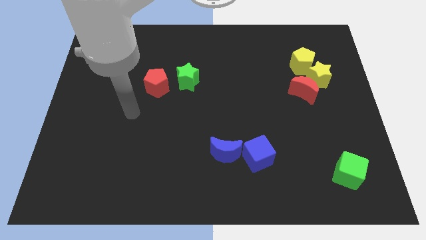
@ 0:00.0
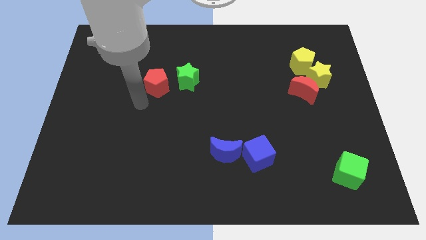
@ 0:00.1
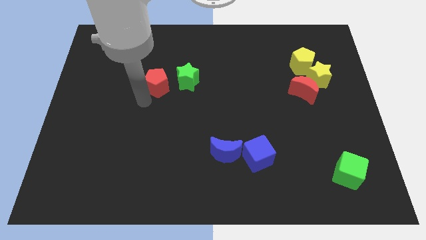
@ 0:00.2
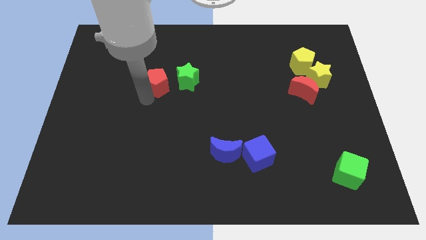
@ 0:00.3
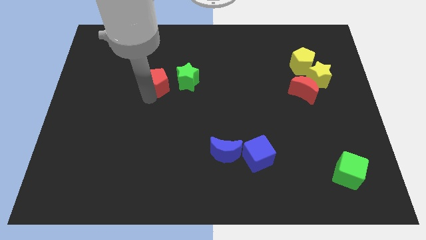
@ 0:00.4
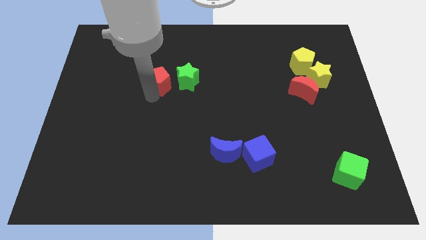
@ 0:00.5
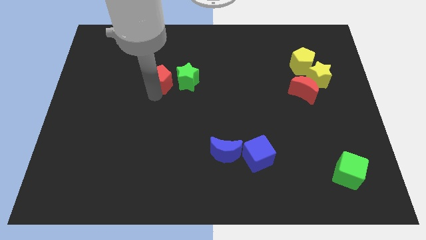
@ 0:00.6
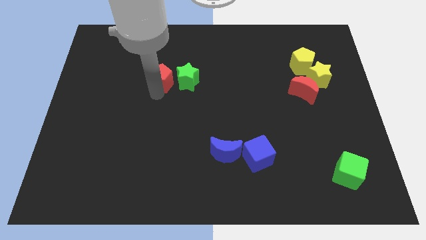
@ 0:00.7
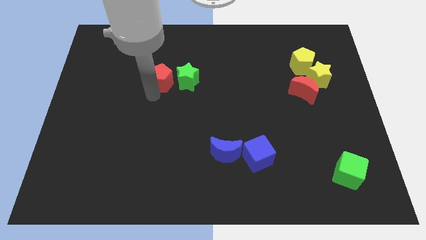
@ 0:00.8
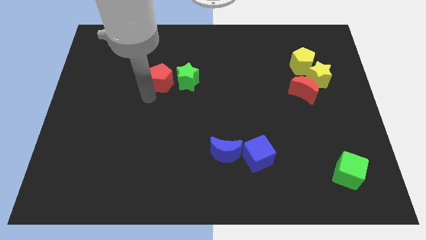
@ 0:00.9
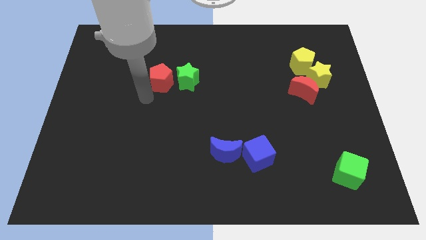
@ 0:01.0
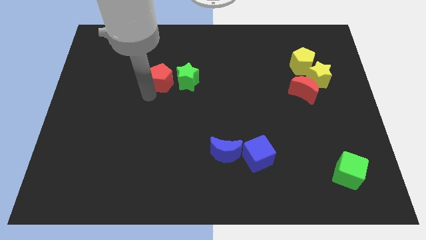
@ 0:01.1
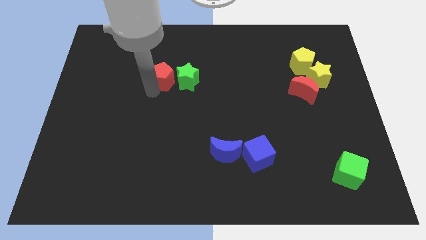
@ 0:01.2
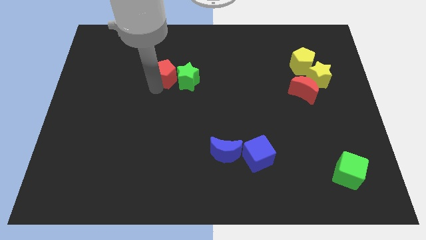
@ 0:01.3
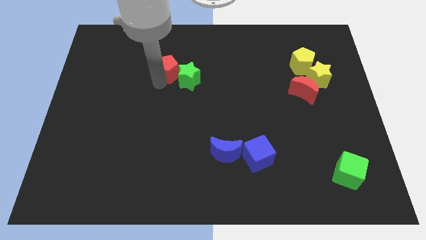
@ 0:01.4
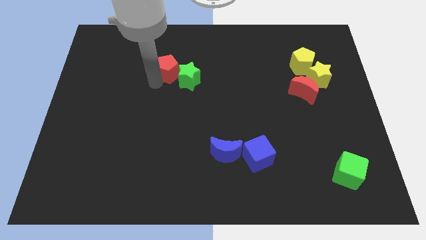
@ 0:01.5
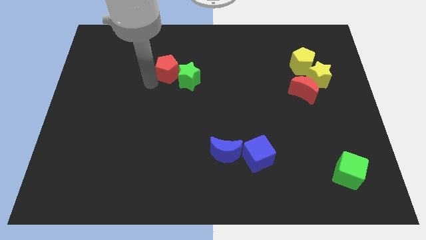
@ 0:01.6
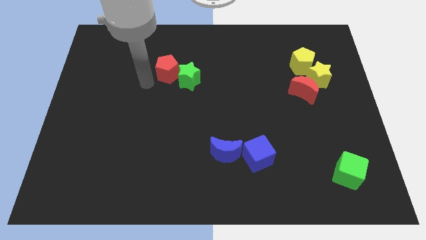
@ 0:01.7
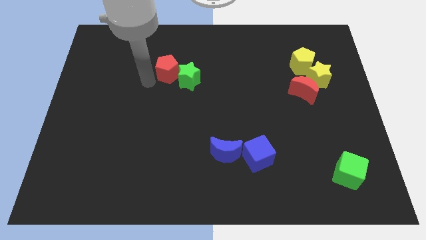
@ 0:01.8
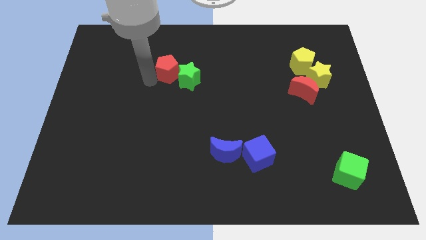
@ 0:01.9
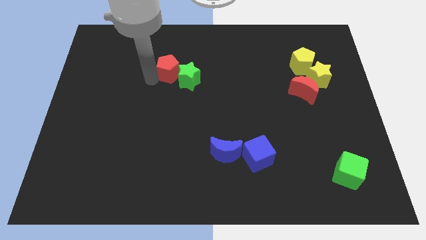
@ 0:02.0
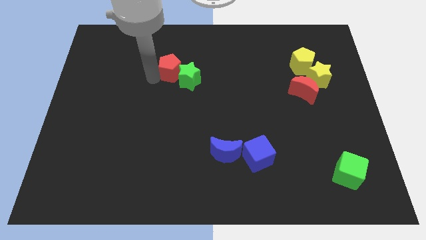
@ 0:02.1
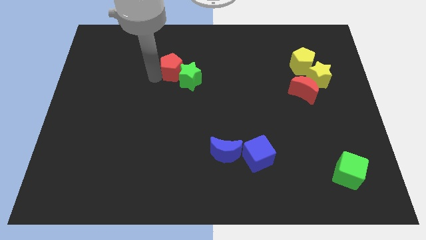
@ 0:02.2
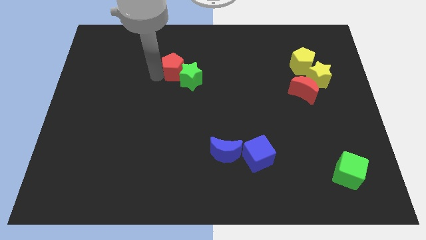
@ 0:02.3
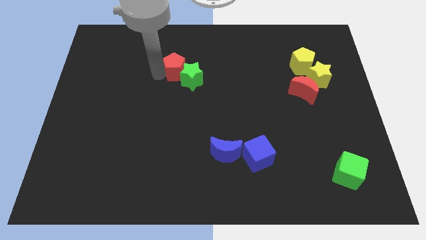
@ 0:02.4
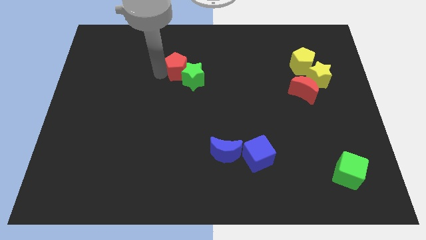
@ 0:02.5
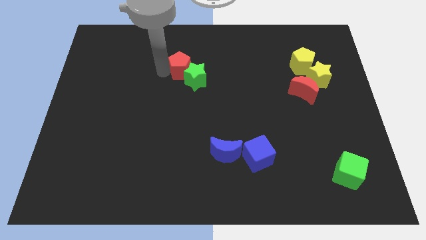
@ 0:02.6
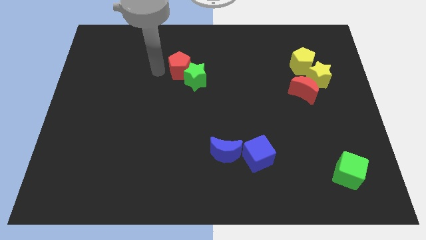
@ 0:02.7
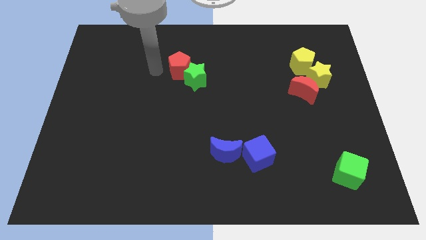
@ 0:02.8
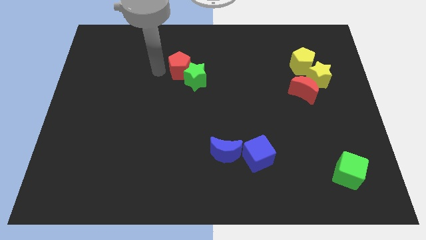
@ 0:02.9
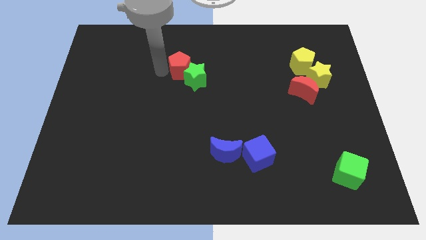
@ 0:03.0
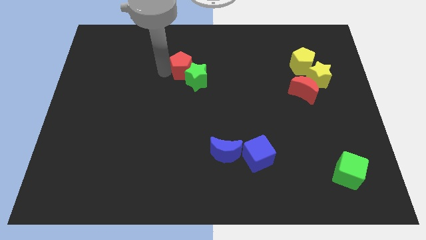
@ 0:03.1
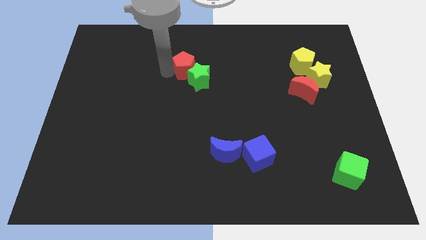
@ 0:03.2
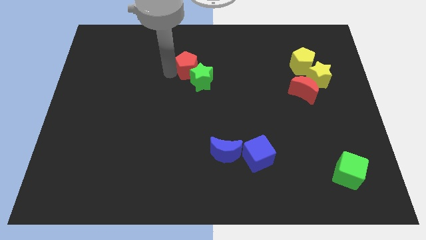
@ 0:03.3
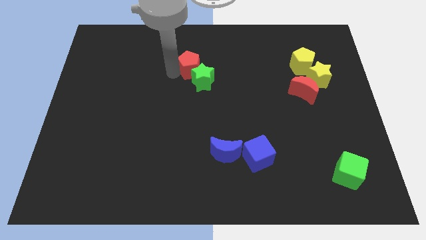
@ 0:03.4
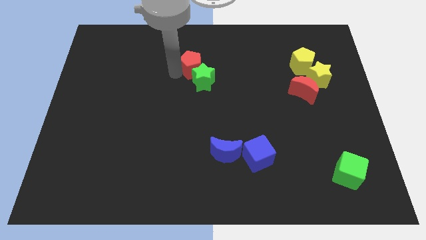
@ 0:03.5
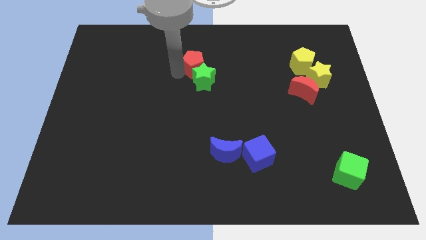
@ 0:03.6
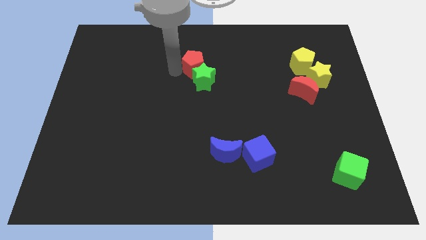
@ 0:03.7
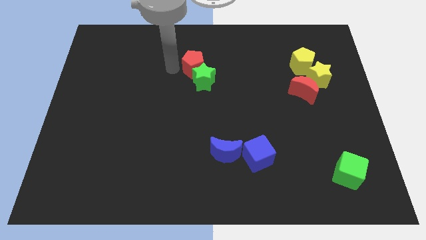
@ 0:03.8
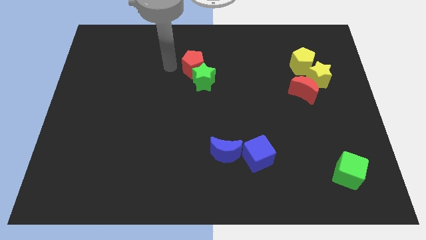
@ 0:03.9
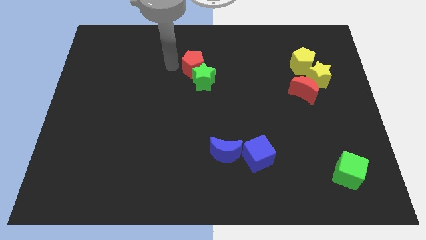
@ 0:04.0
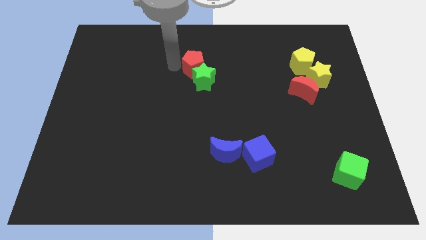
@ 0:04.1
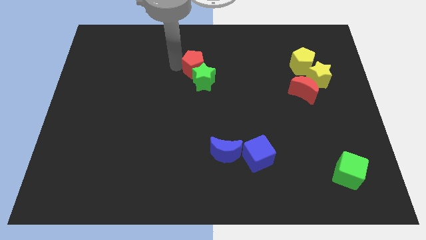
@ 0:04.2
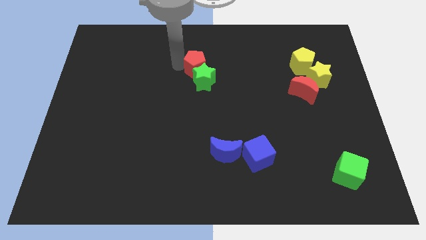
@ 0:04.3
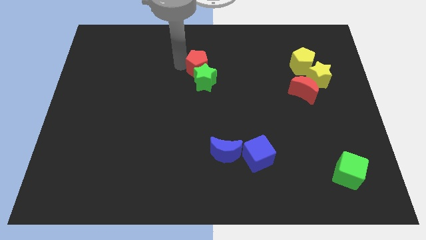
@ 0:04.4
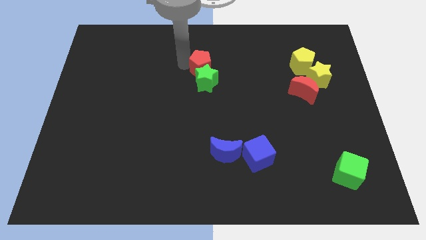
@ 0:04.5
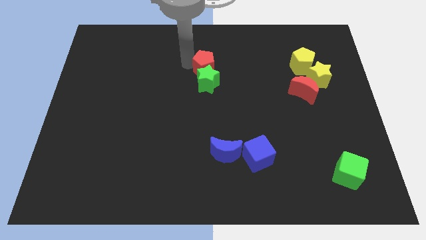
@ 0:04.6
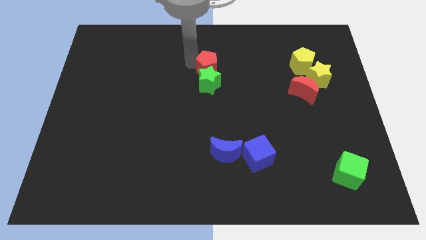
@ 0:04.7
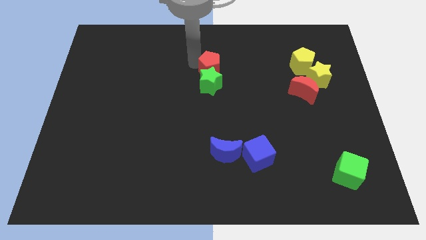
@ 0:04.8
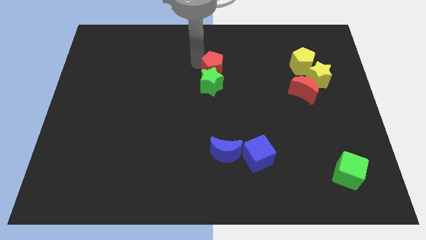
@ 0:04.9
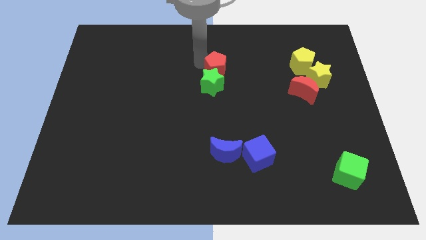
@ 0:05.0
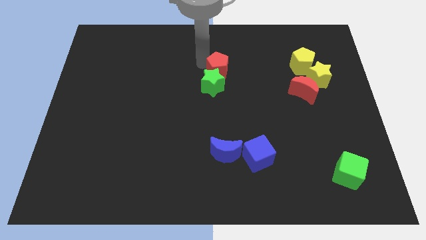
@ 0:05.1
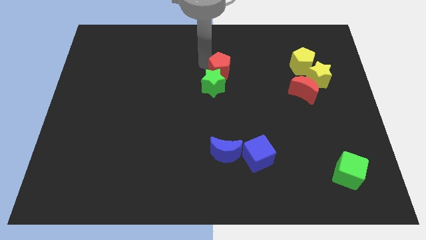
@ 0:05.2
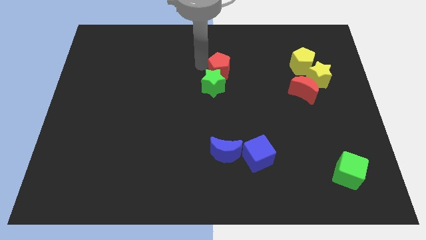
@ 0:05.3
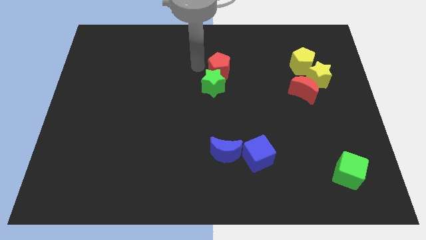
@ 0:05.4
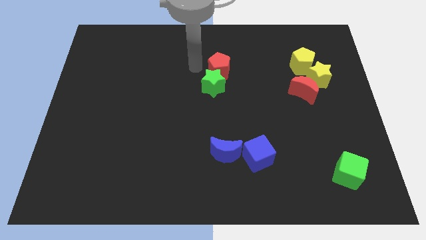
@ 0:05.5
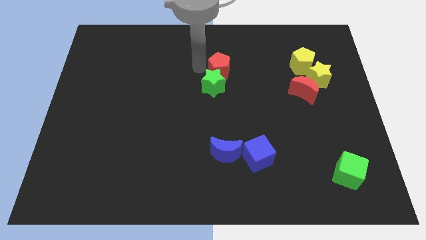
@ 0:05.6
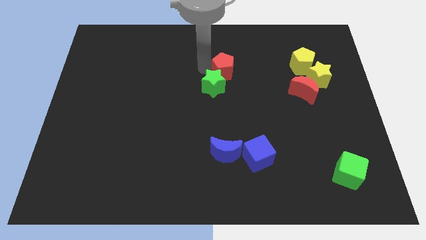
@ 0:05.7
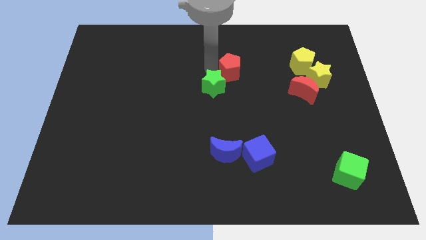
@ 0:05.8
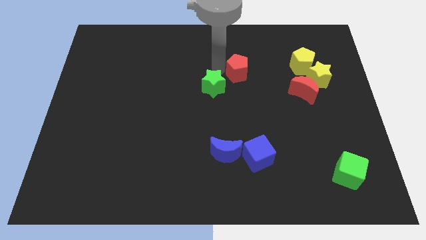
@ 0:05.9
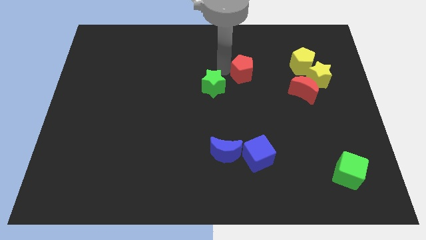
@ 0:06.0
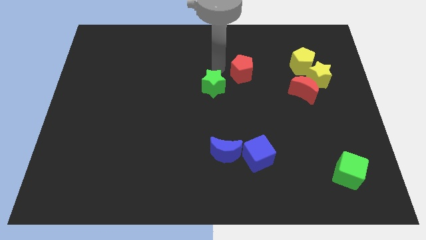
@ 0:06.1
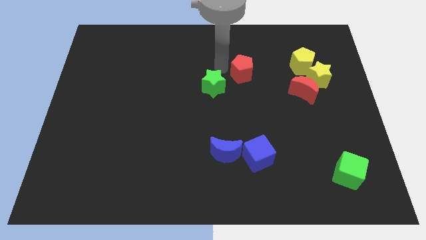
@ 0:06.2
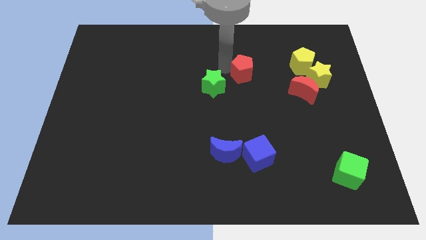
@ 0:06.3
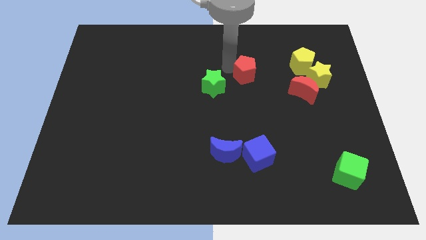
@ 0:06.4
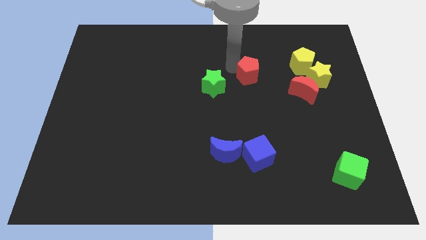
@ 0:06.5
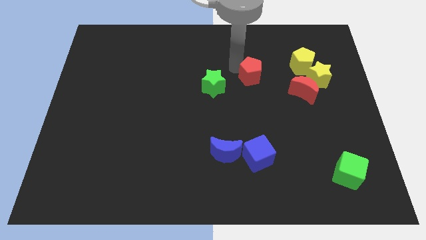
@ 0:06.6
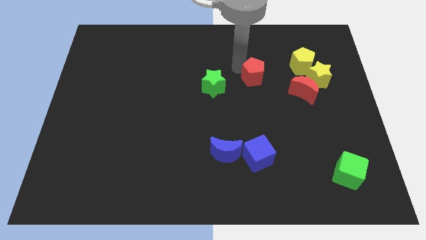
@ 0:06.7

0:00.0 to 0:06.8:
push the red pentagon to the left side of the yellow star

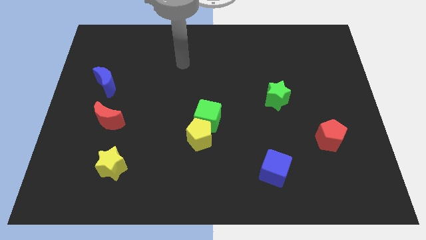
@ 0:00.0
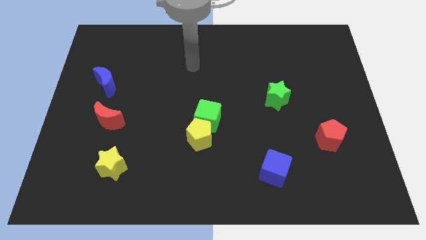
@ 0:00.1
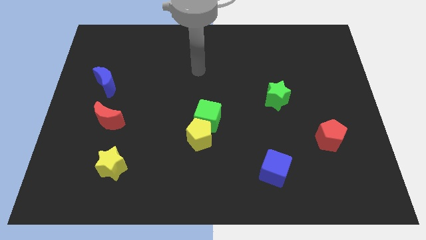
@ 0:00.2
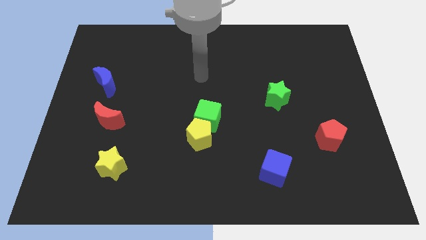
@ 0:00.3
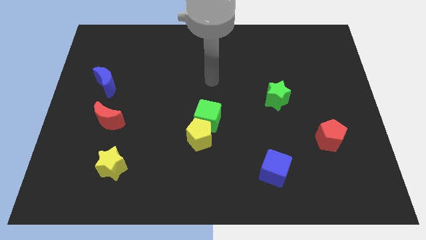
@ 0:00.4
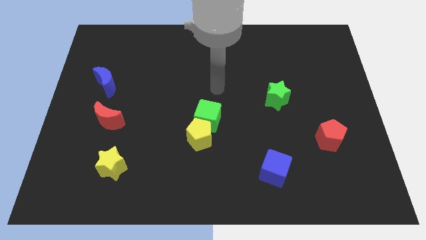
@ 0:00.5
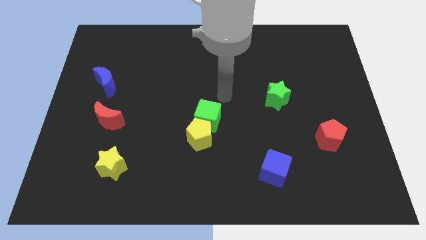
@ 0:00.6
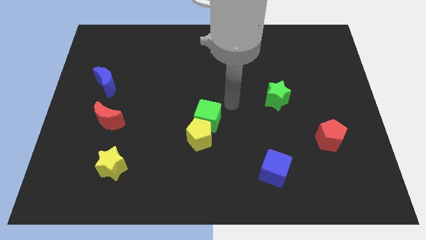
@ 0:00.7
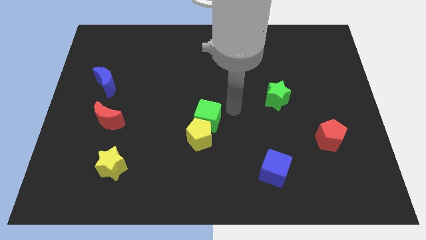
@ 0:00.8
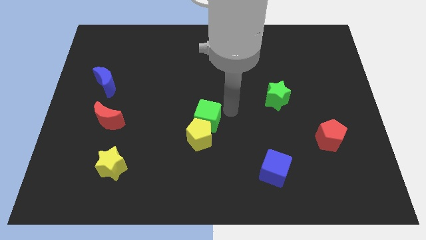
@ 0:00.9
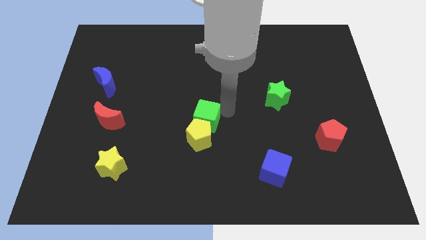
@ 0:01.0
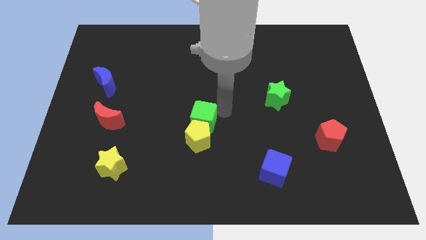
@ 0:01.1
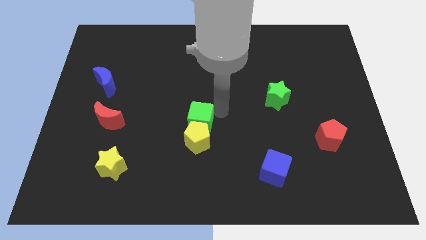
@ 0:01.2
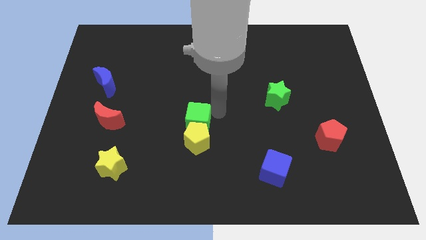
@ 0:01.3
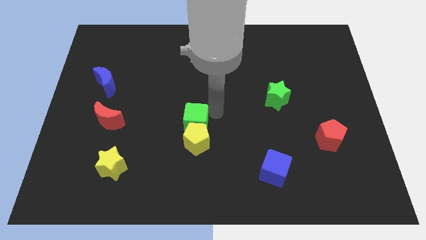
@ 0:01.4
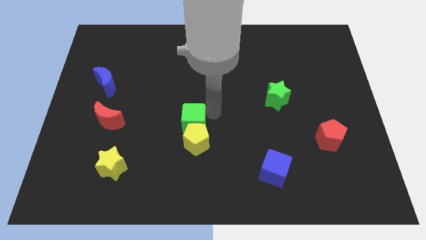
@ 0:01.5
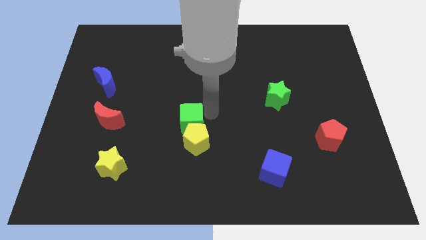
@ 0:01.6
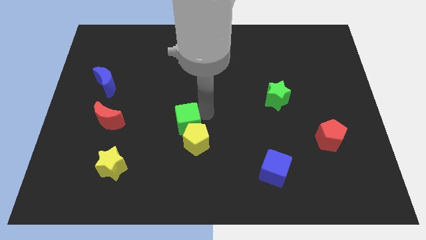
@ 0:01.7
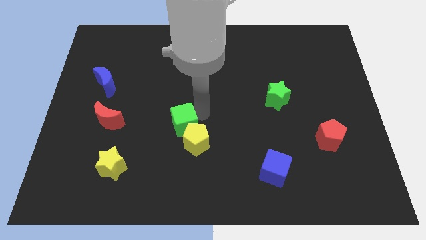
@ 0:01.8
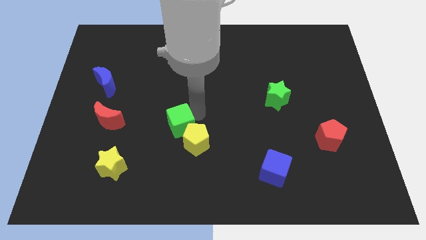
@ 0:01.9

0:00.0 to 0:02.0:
put the green cube just left of the yellow pentagon
